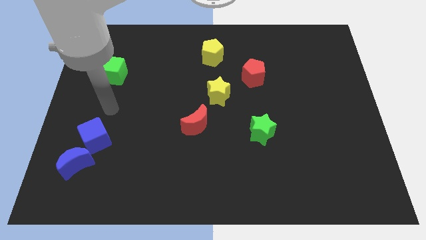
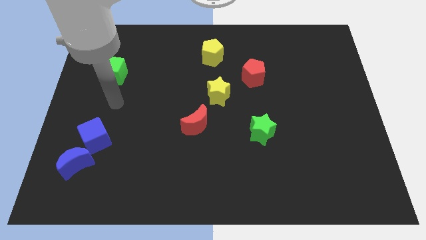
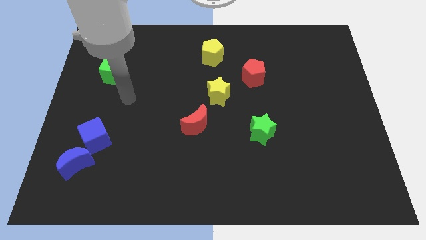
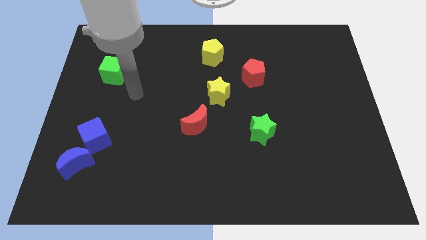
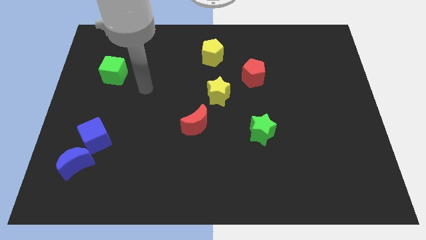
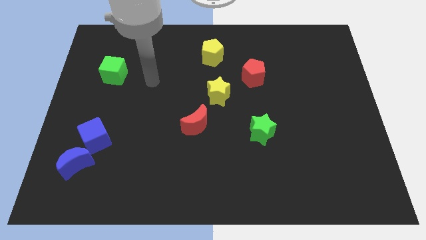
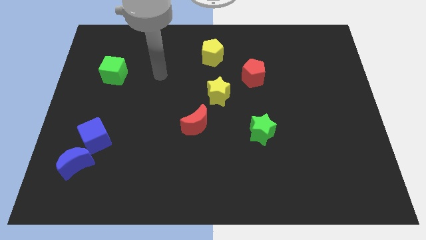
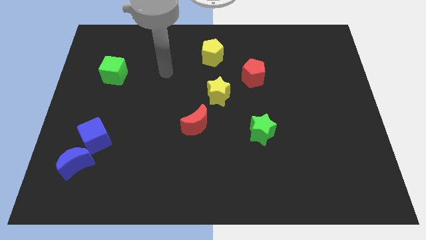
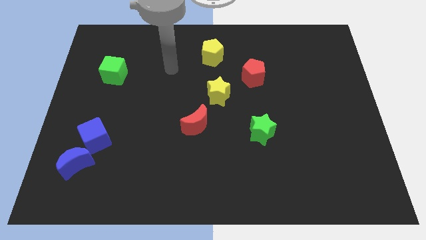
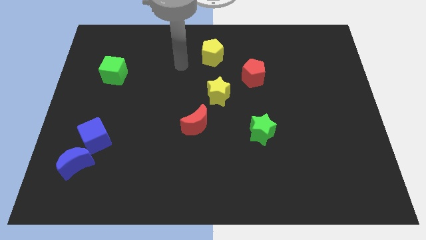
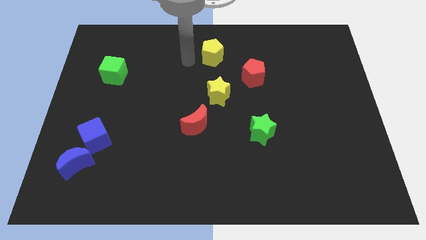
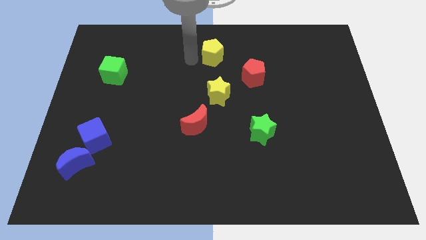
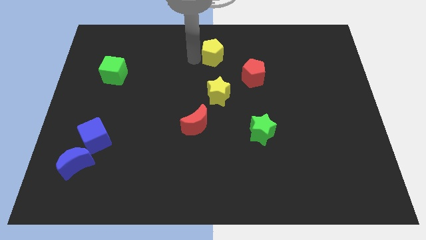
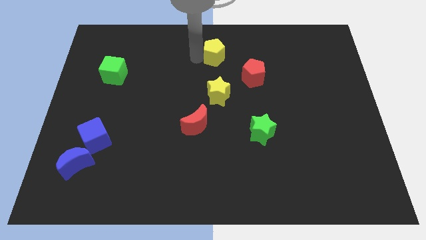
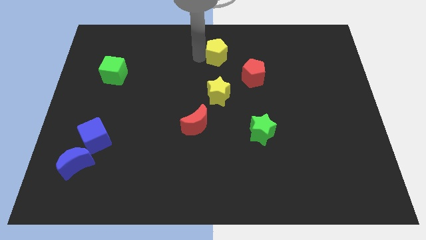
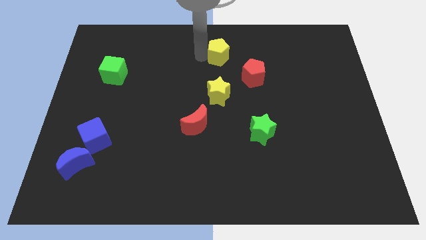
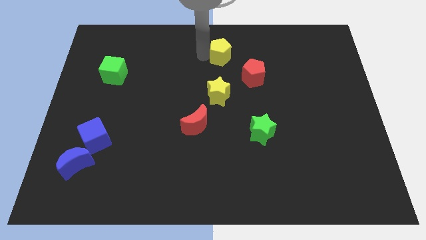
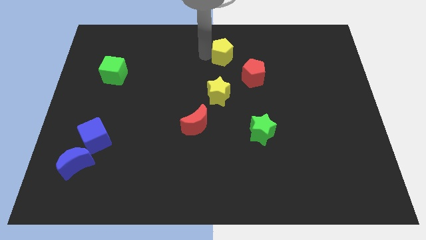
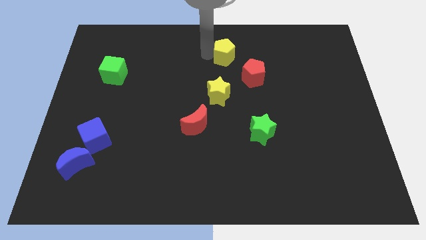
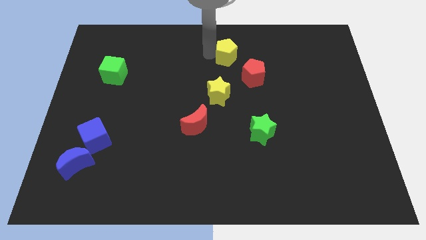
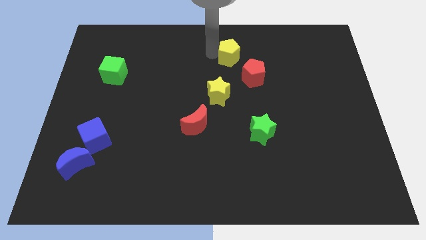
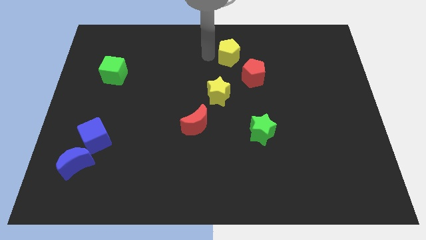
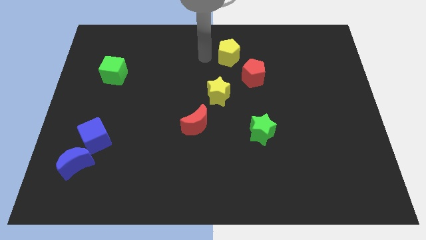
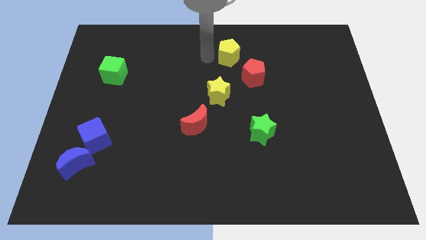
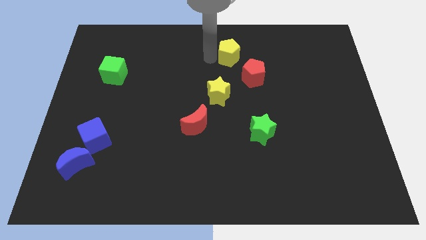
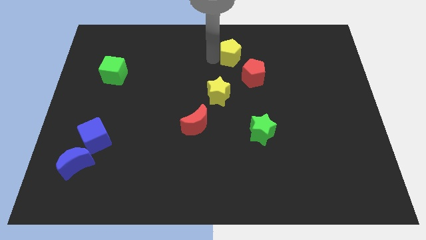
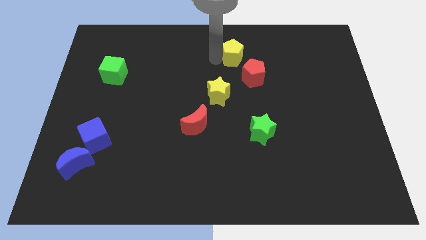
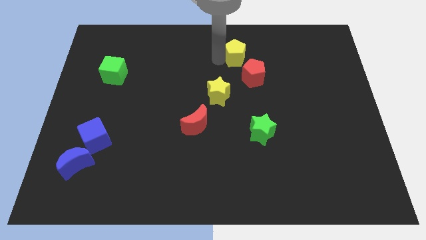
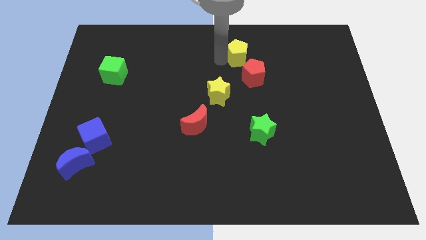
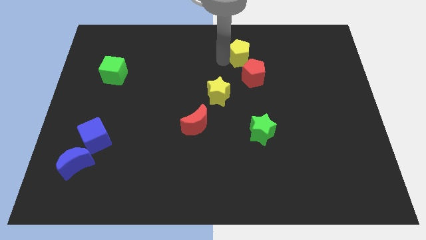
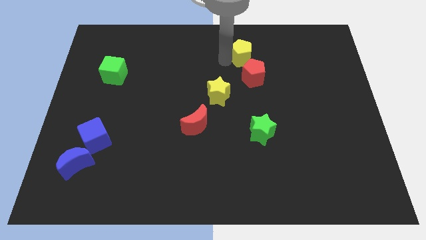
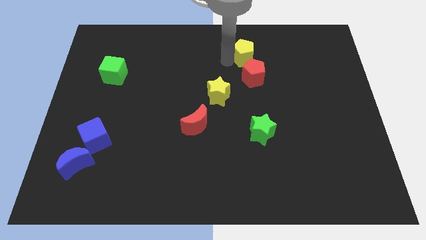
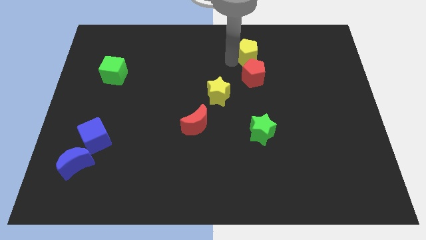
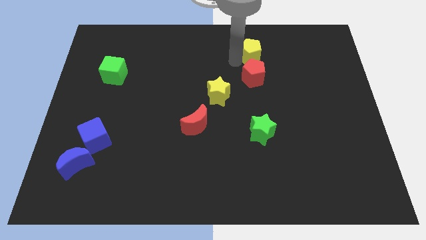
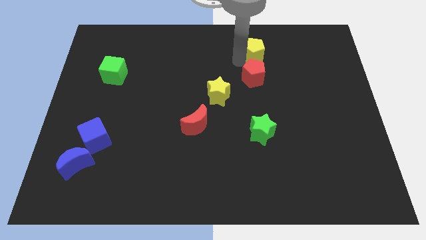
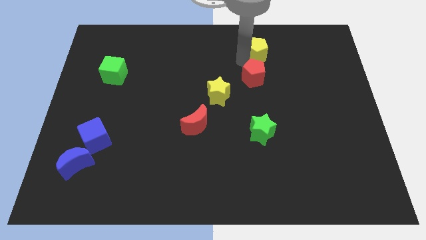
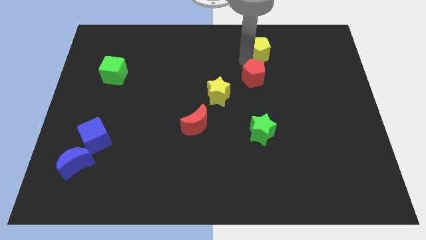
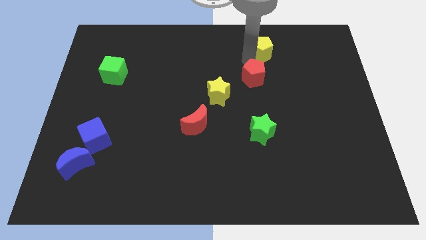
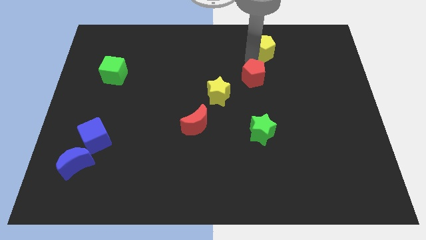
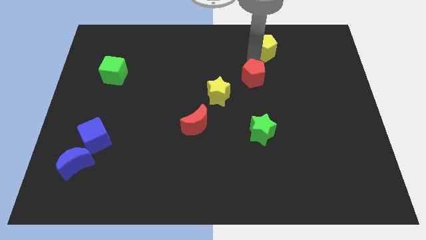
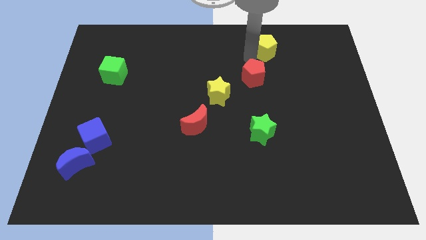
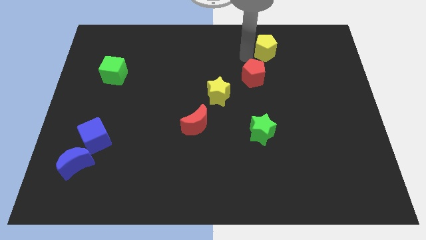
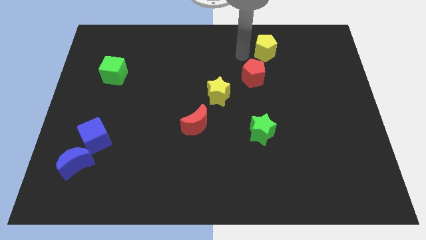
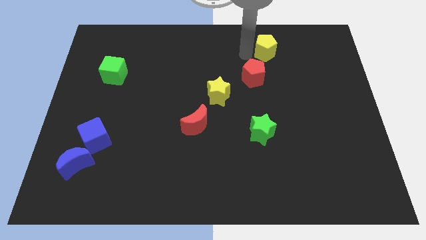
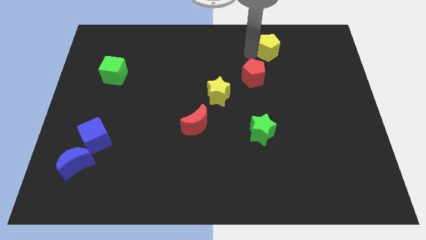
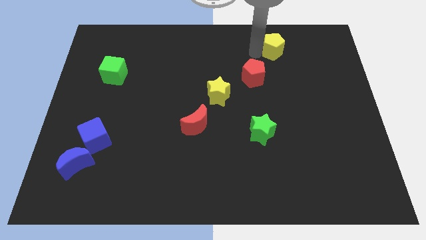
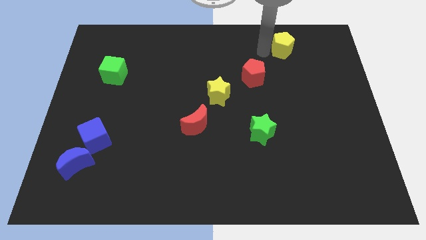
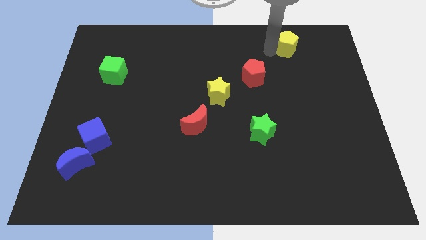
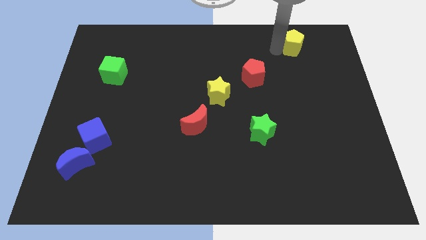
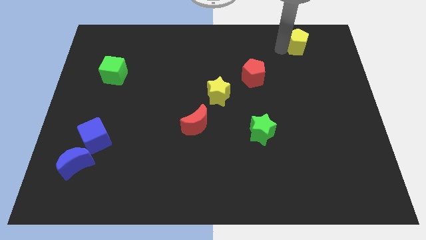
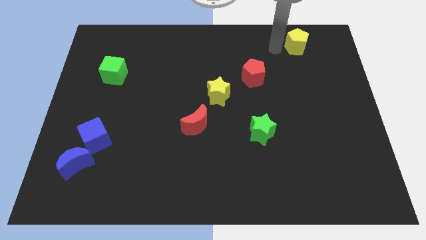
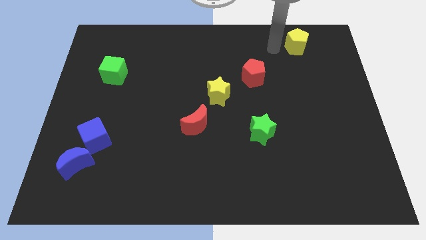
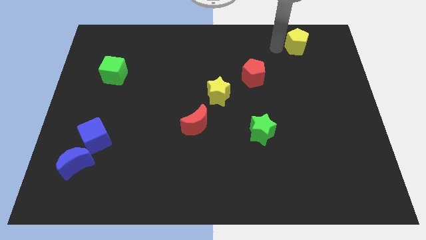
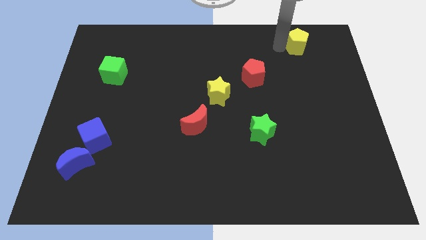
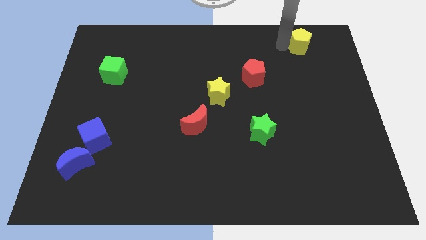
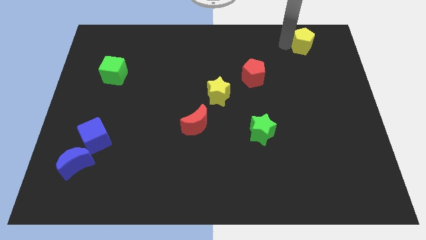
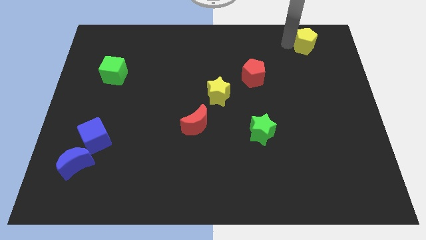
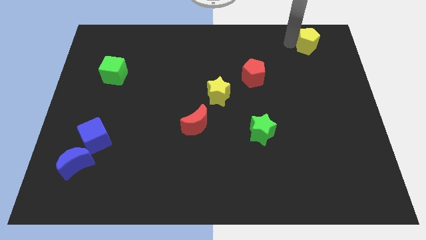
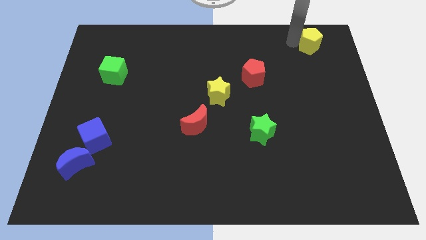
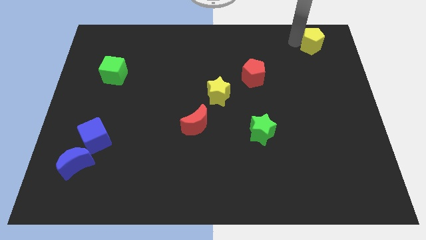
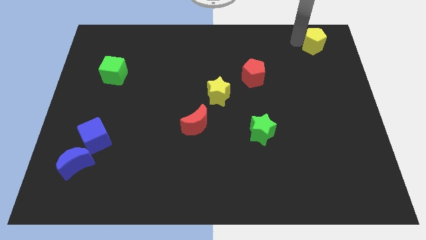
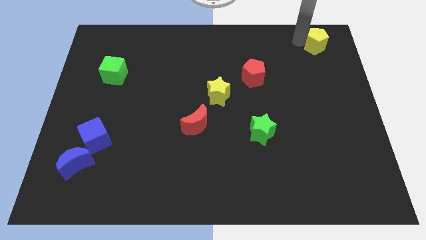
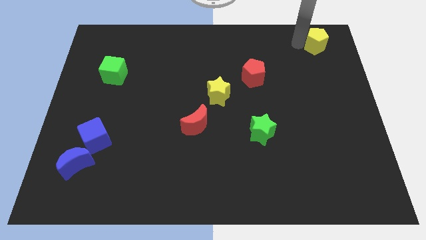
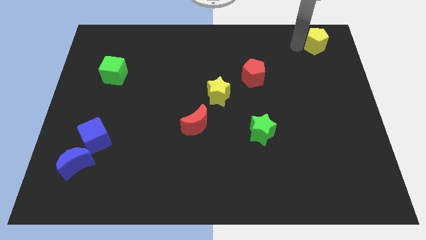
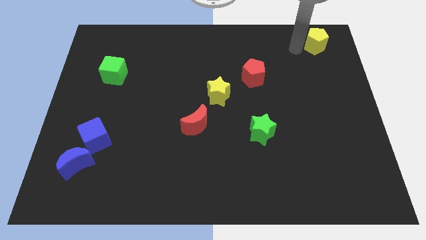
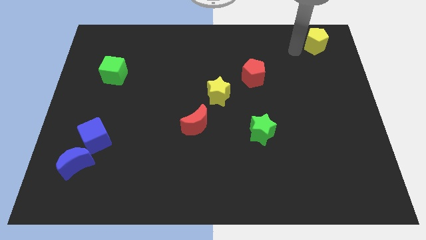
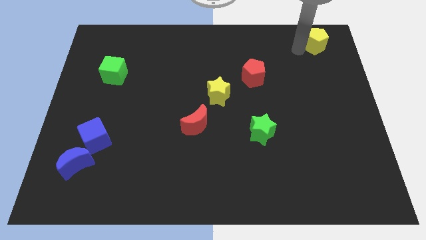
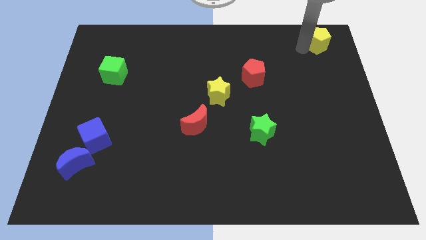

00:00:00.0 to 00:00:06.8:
move the yellow pentagon to the top right corner
